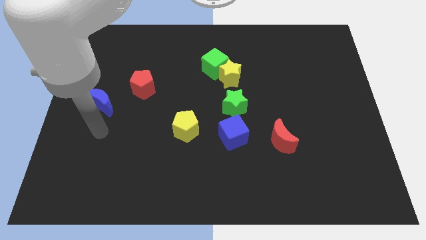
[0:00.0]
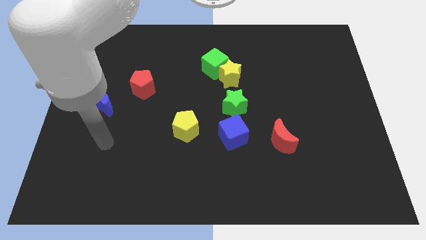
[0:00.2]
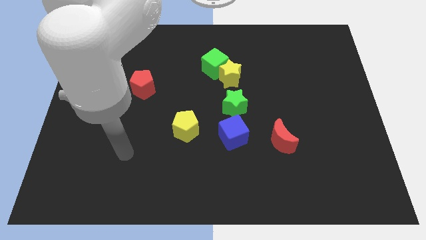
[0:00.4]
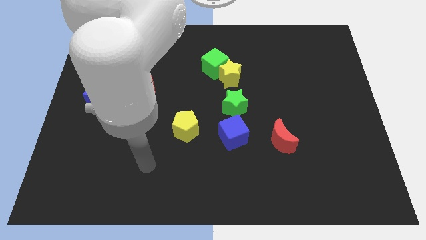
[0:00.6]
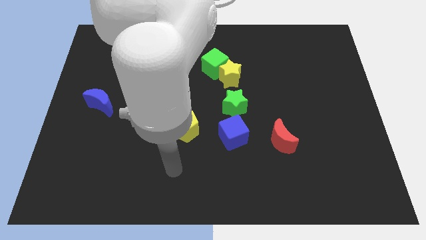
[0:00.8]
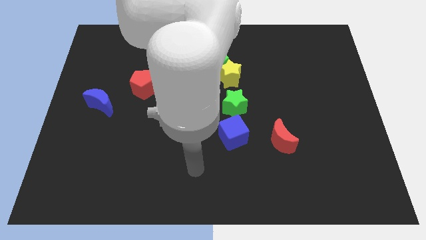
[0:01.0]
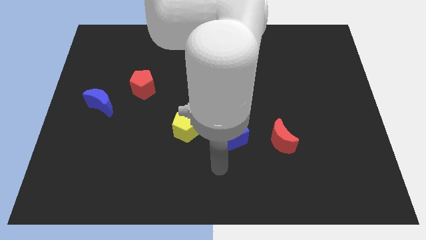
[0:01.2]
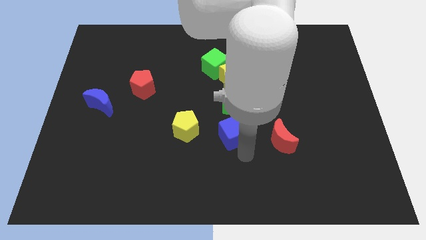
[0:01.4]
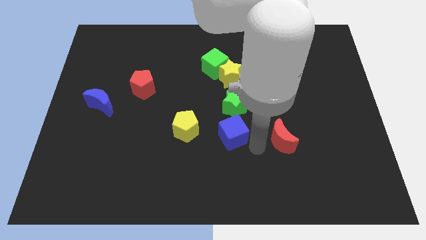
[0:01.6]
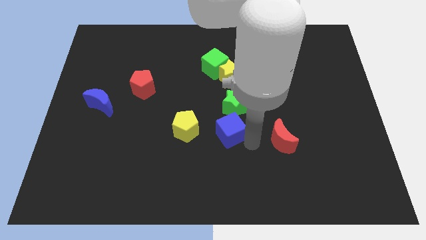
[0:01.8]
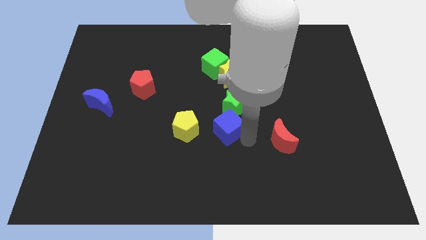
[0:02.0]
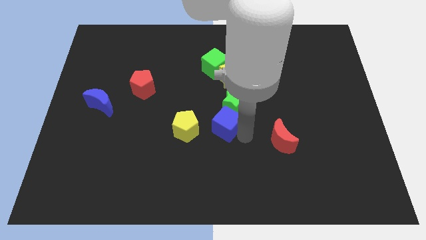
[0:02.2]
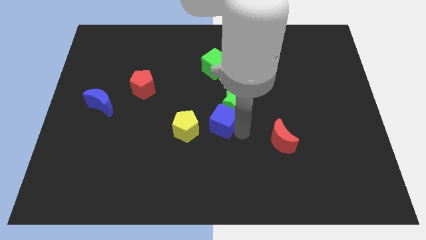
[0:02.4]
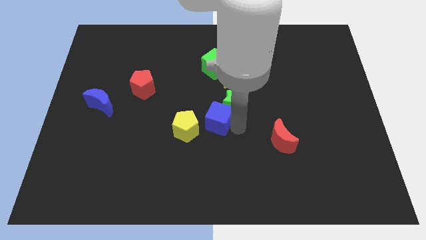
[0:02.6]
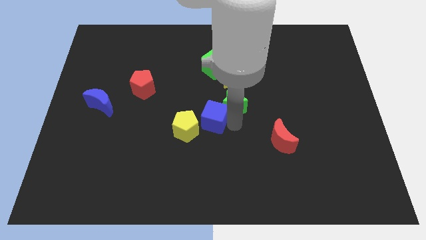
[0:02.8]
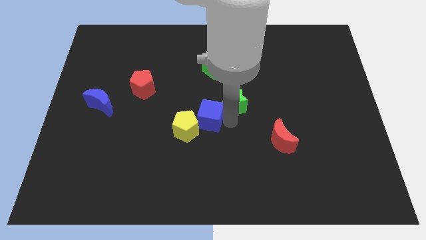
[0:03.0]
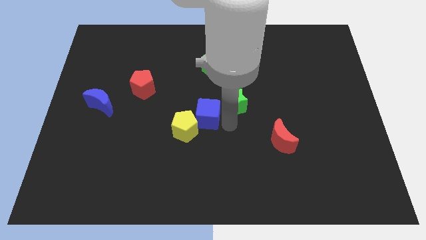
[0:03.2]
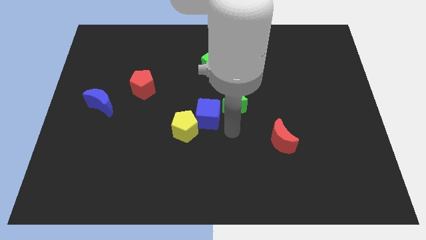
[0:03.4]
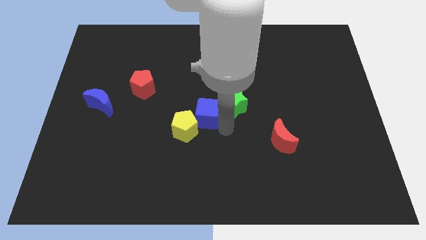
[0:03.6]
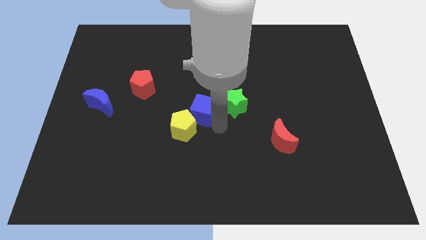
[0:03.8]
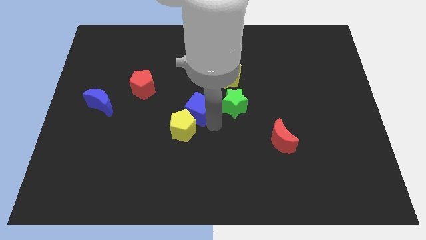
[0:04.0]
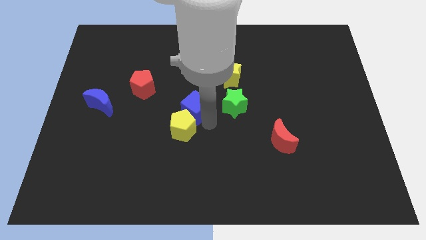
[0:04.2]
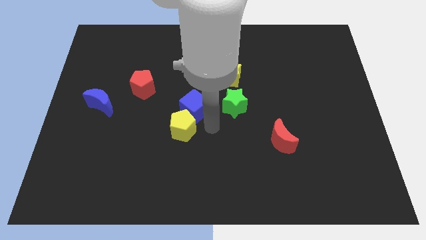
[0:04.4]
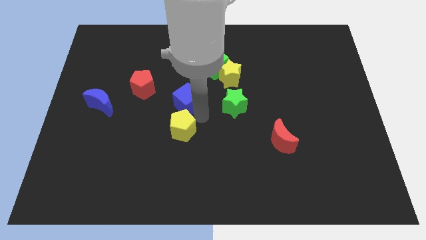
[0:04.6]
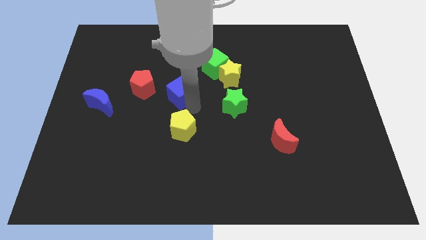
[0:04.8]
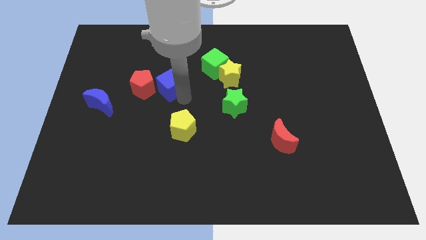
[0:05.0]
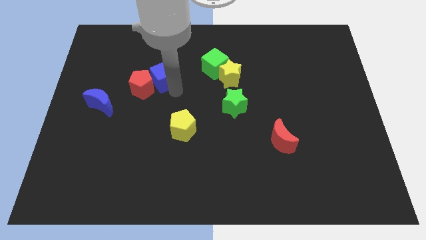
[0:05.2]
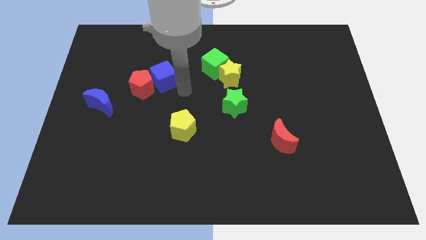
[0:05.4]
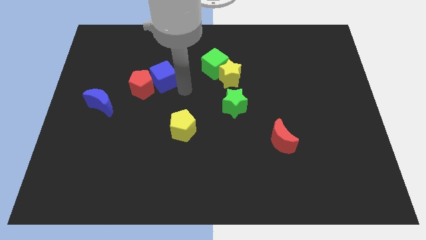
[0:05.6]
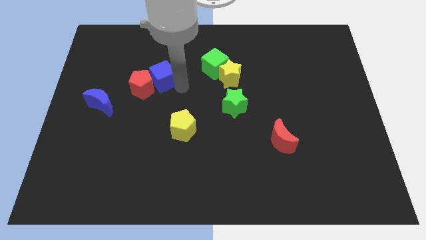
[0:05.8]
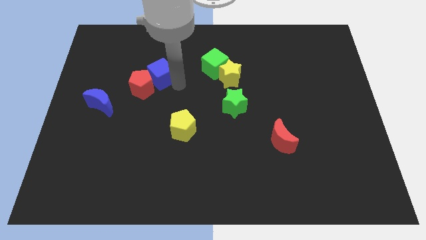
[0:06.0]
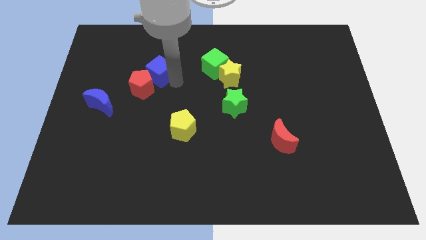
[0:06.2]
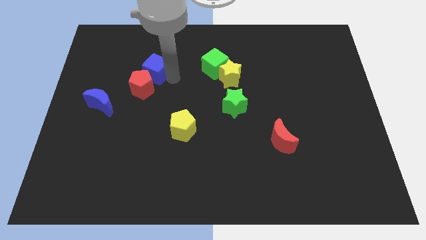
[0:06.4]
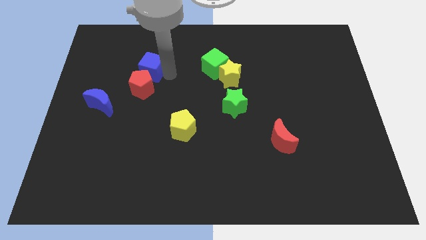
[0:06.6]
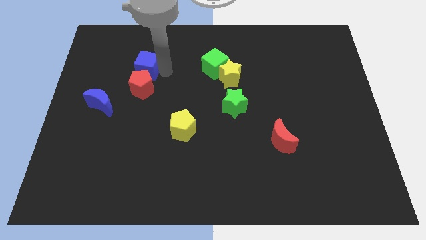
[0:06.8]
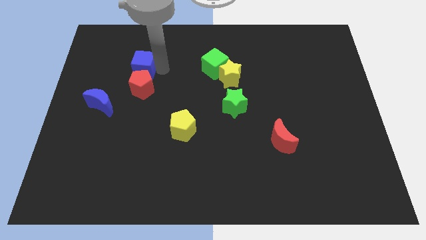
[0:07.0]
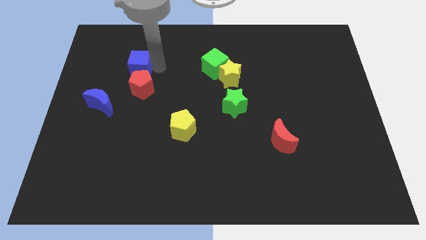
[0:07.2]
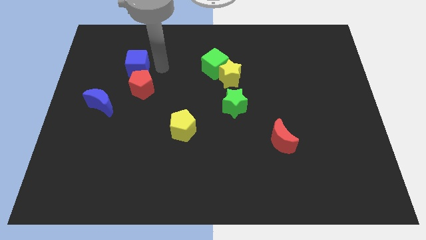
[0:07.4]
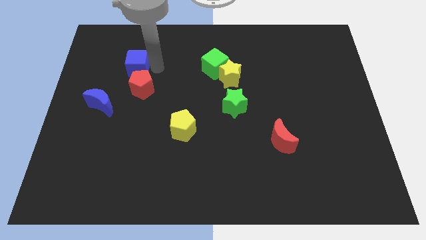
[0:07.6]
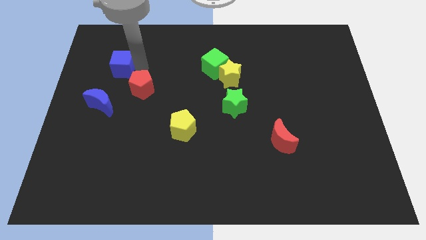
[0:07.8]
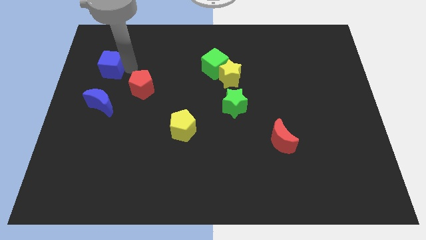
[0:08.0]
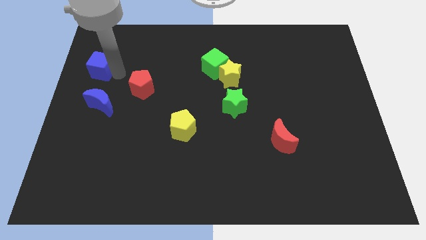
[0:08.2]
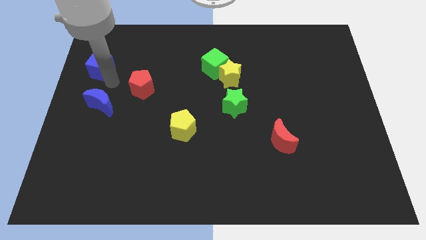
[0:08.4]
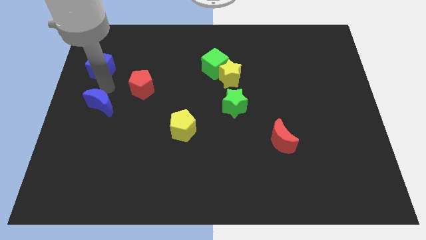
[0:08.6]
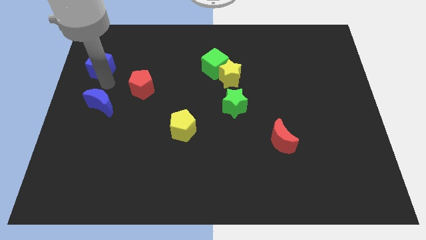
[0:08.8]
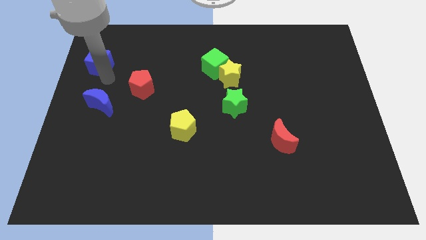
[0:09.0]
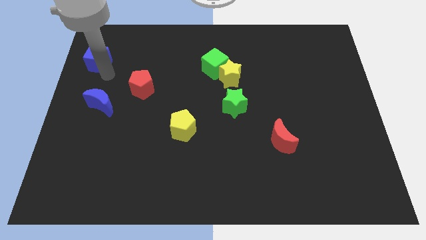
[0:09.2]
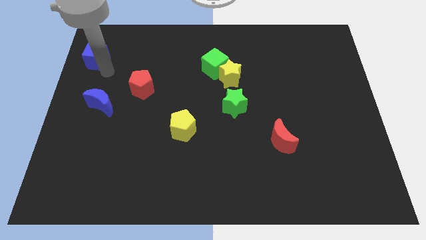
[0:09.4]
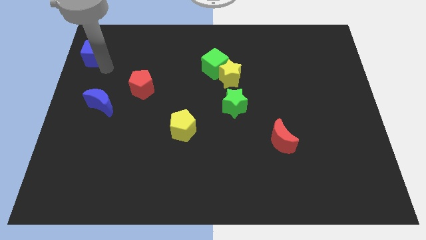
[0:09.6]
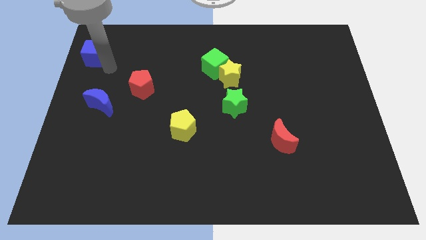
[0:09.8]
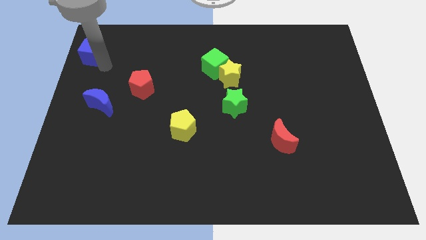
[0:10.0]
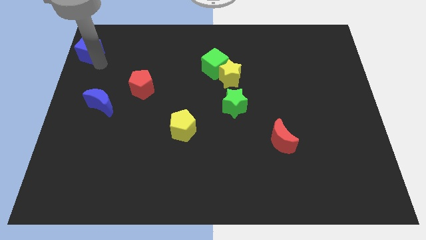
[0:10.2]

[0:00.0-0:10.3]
move the blue cube to the top left

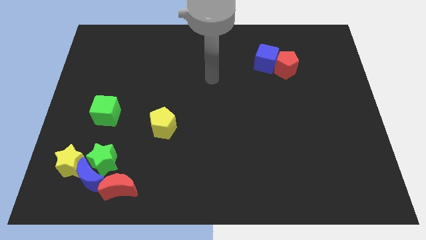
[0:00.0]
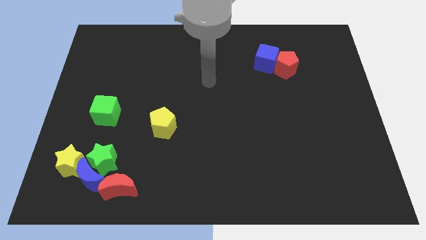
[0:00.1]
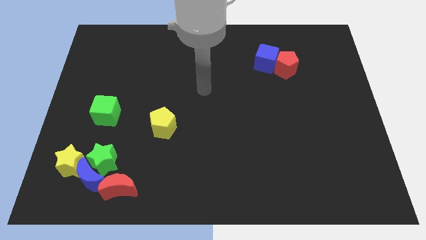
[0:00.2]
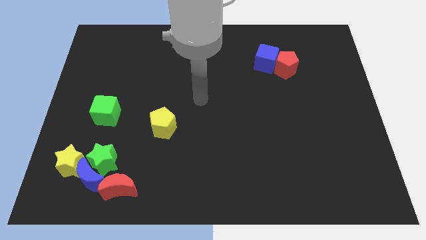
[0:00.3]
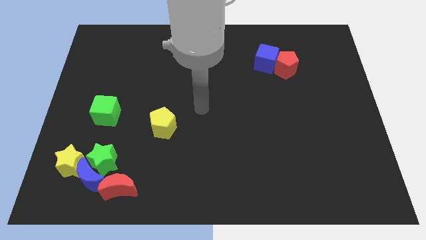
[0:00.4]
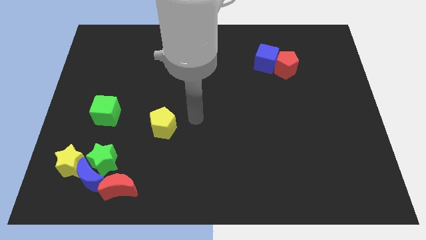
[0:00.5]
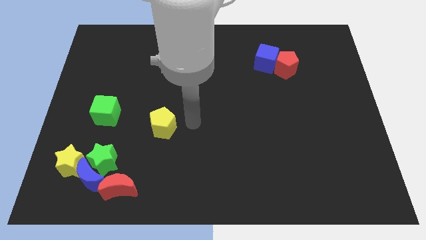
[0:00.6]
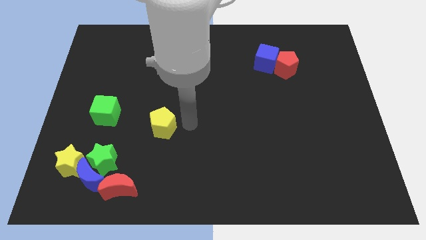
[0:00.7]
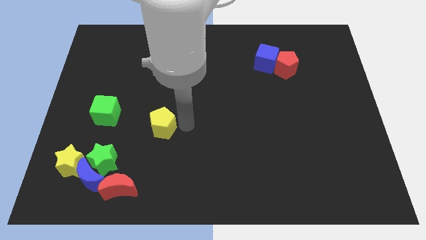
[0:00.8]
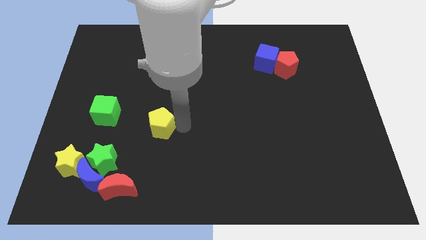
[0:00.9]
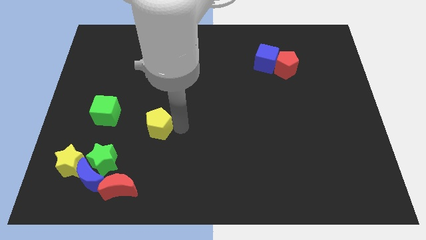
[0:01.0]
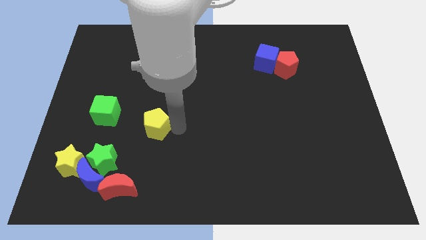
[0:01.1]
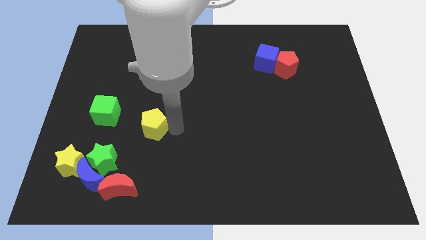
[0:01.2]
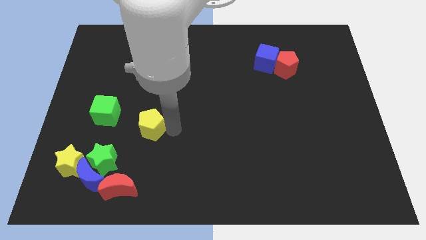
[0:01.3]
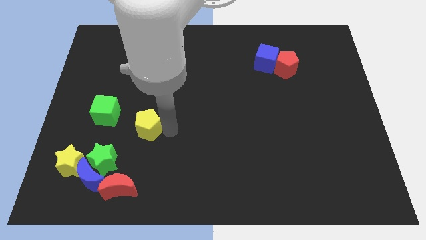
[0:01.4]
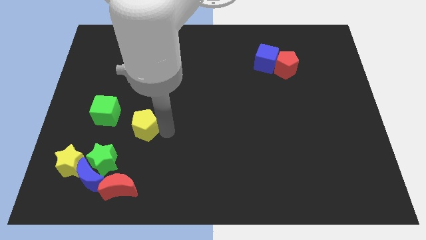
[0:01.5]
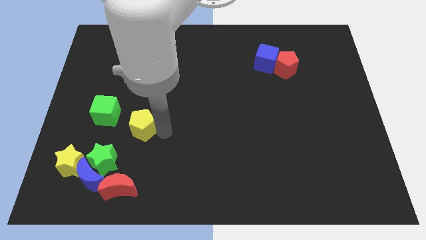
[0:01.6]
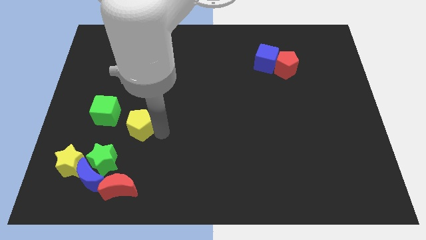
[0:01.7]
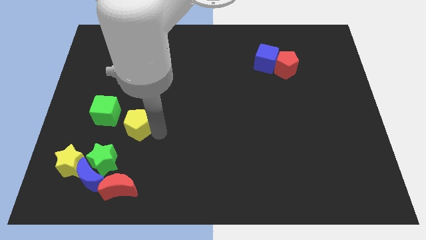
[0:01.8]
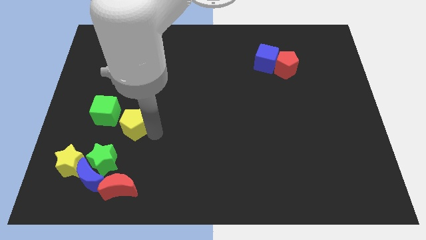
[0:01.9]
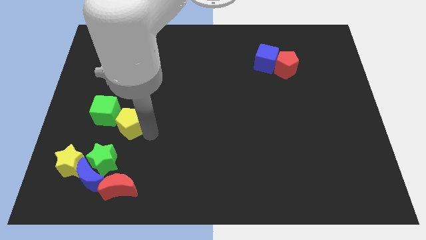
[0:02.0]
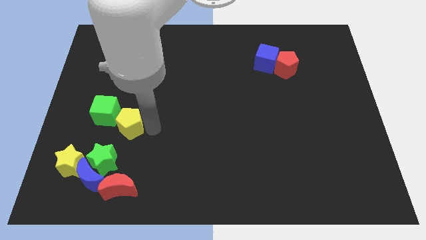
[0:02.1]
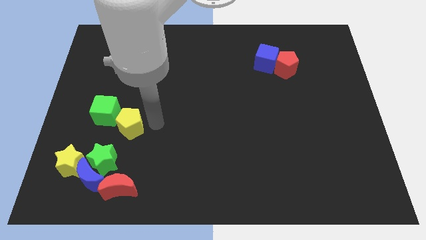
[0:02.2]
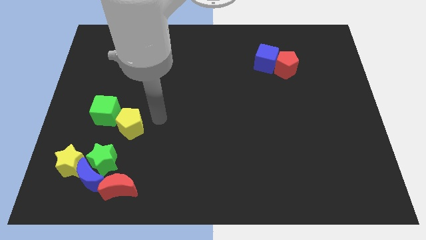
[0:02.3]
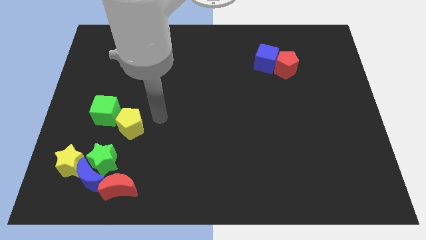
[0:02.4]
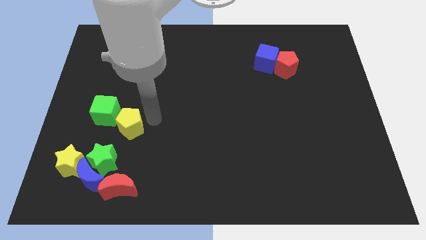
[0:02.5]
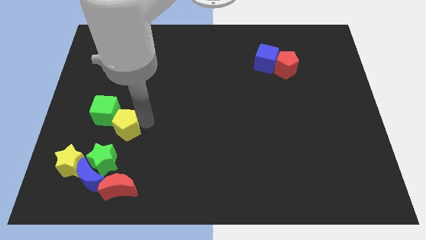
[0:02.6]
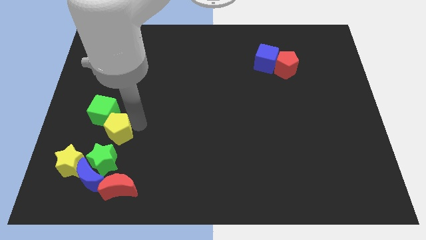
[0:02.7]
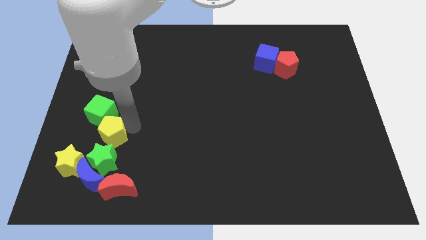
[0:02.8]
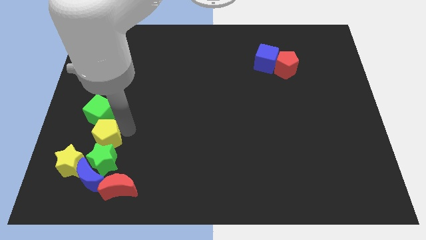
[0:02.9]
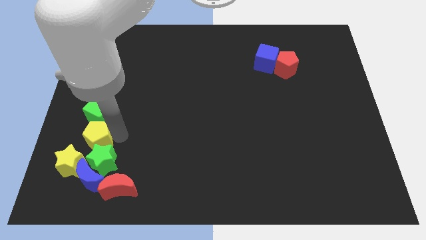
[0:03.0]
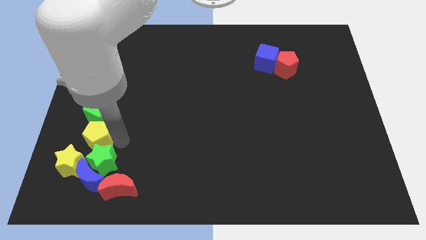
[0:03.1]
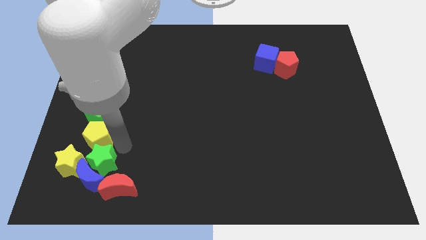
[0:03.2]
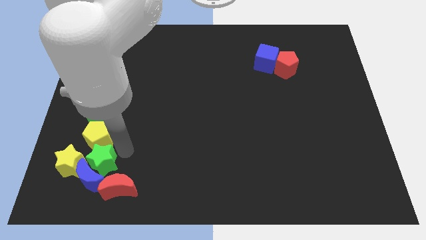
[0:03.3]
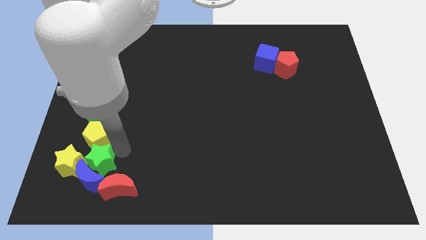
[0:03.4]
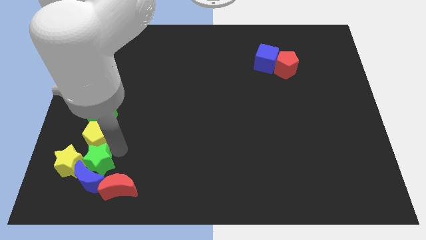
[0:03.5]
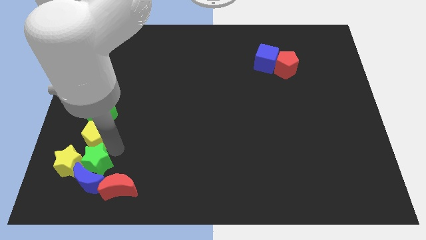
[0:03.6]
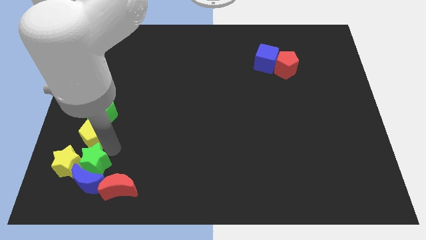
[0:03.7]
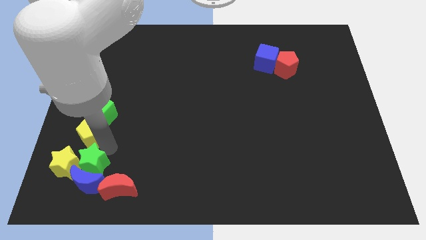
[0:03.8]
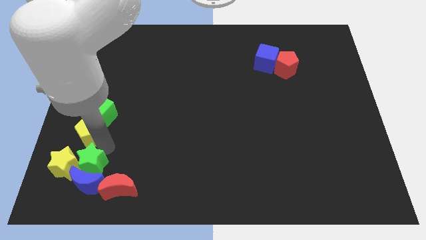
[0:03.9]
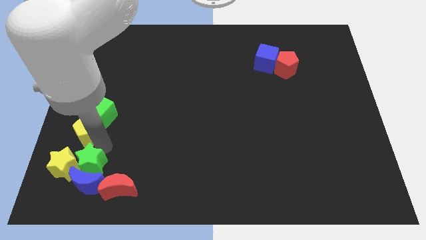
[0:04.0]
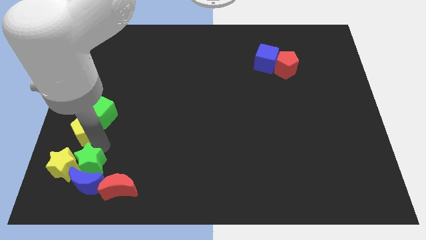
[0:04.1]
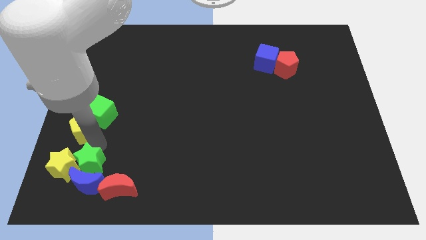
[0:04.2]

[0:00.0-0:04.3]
slide the yellow pentagon to the left side
